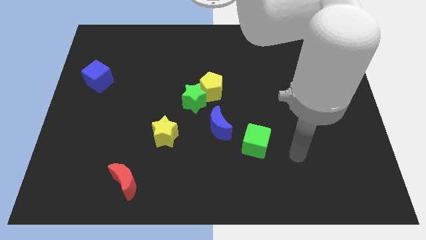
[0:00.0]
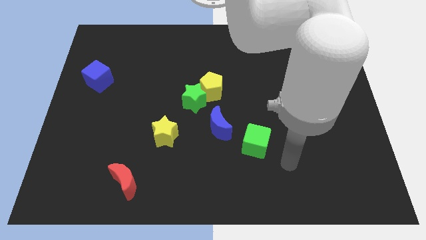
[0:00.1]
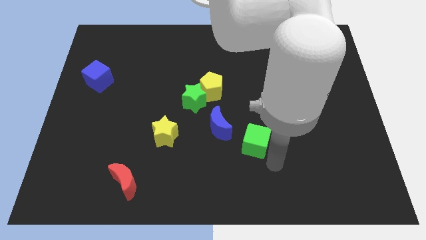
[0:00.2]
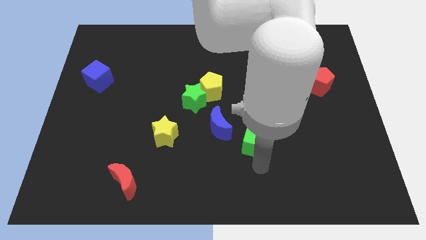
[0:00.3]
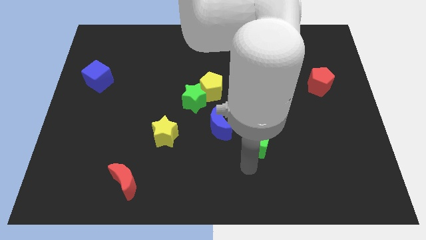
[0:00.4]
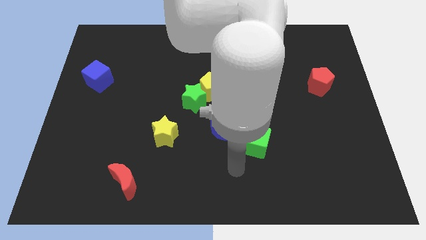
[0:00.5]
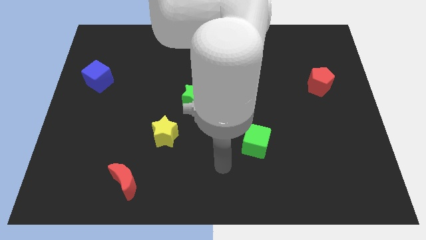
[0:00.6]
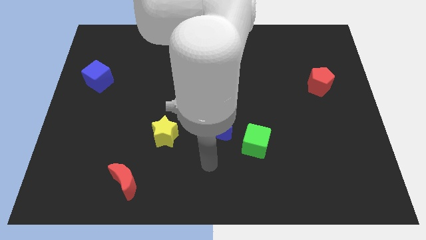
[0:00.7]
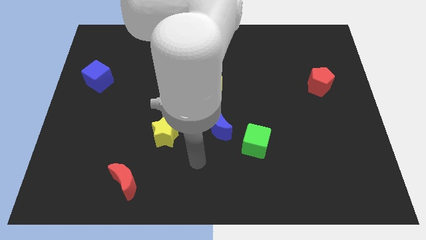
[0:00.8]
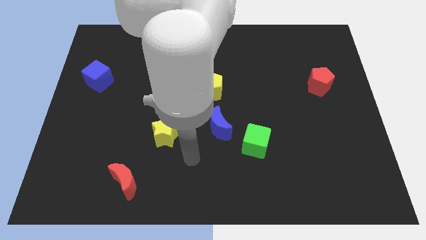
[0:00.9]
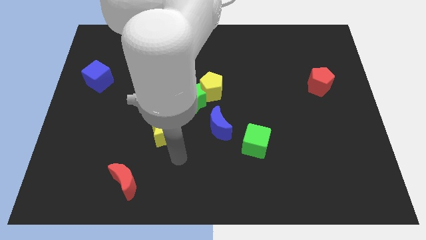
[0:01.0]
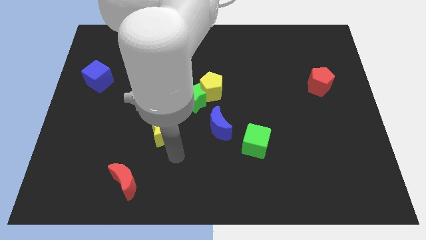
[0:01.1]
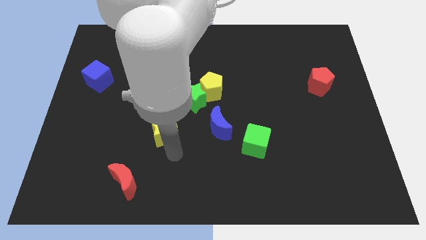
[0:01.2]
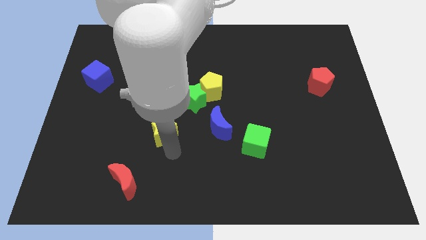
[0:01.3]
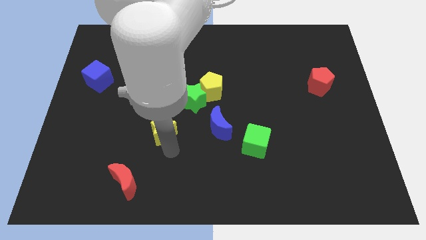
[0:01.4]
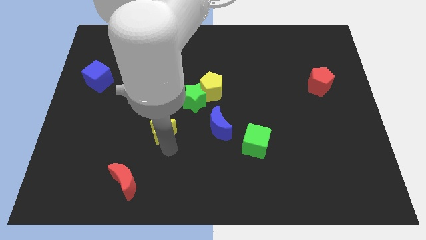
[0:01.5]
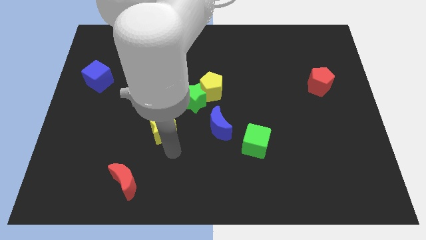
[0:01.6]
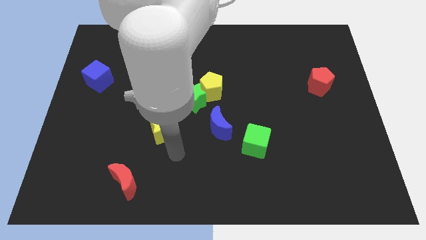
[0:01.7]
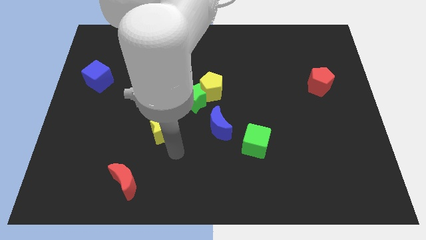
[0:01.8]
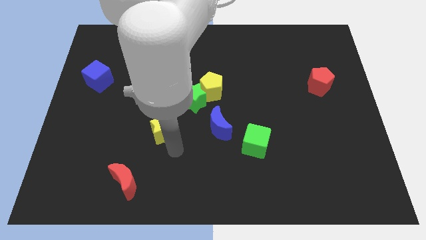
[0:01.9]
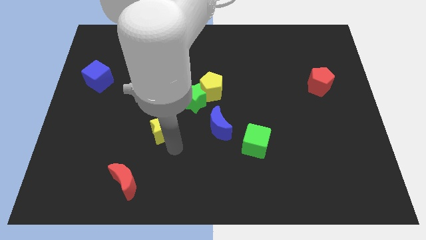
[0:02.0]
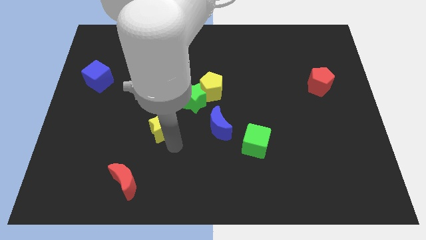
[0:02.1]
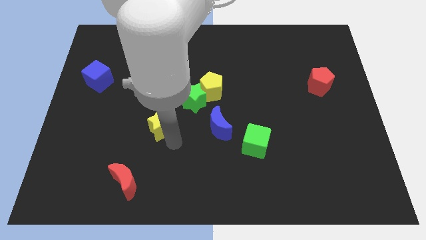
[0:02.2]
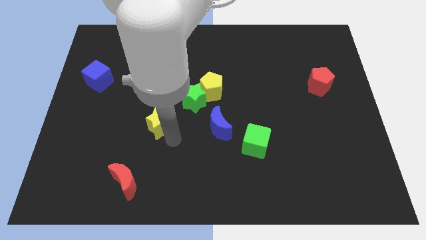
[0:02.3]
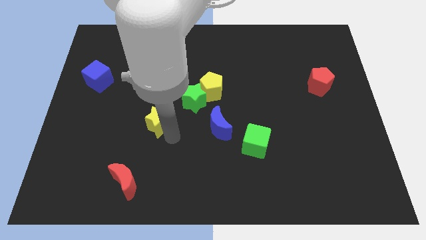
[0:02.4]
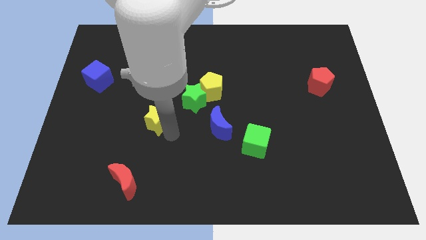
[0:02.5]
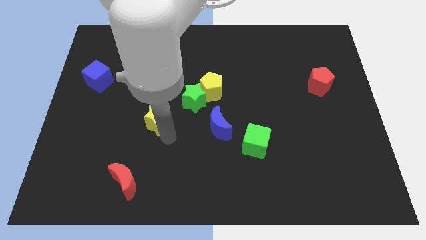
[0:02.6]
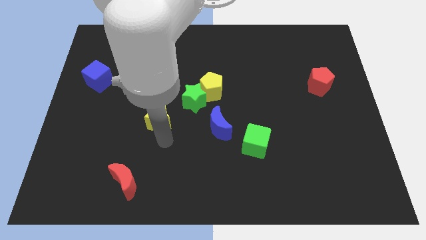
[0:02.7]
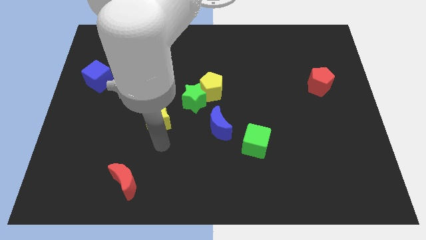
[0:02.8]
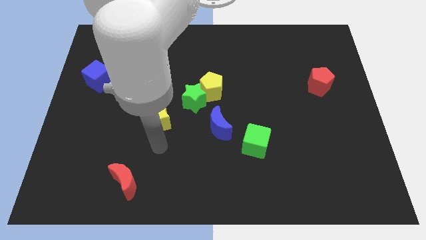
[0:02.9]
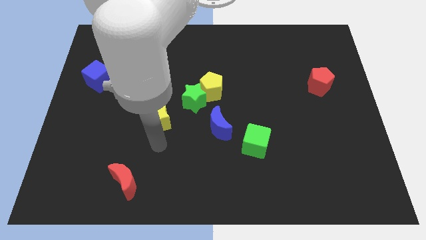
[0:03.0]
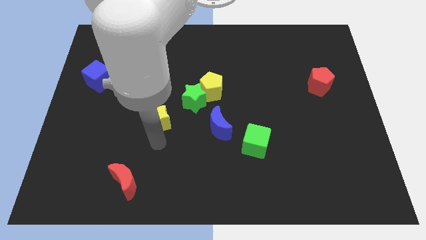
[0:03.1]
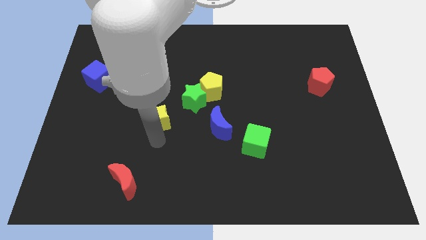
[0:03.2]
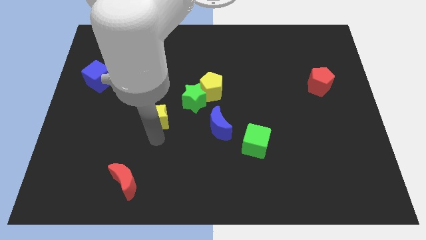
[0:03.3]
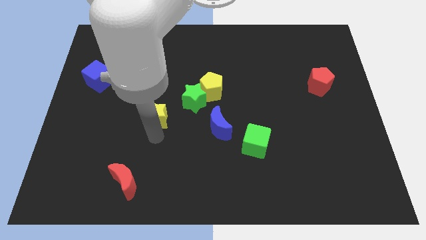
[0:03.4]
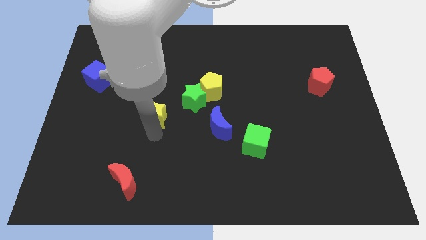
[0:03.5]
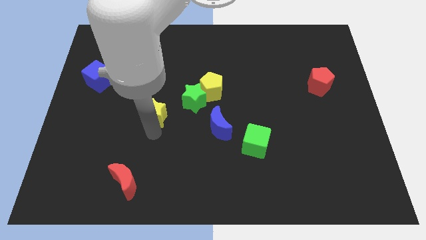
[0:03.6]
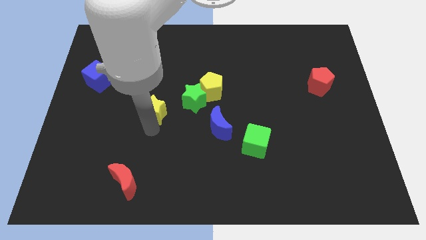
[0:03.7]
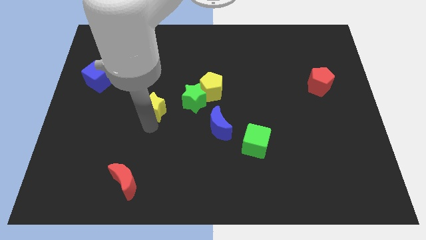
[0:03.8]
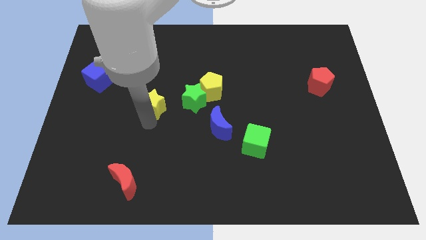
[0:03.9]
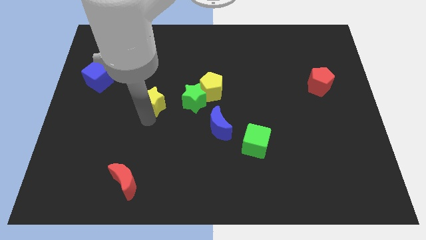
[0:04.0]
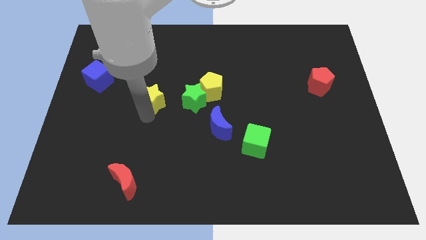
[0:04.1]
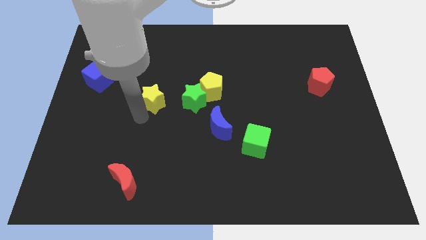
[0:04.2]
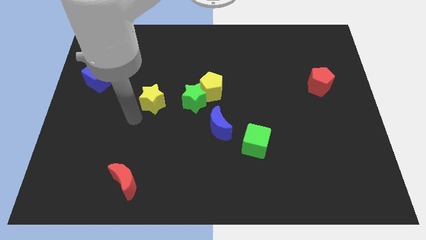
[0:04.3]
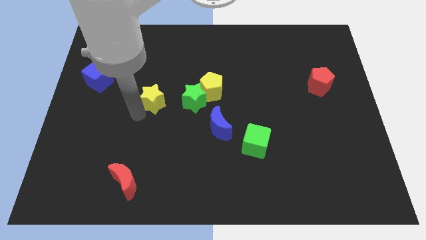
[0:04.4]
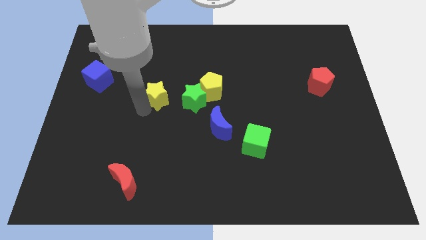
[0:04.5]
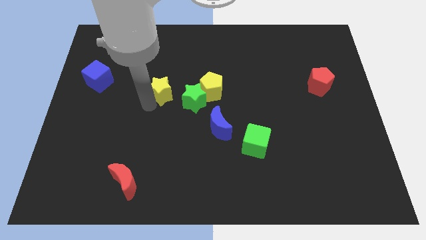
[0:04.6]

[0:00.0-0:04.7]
put the yellow star to the top left side of the green star

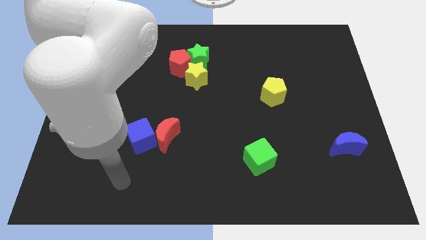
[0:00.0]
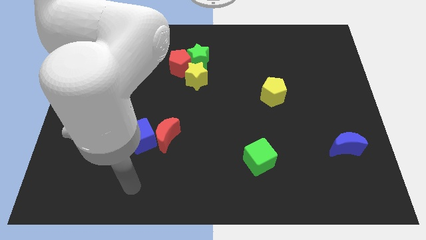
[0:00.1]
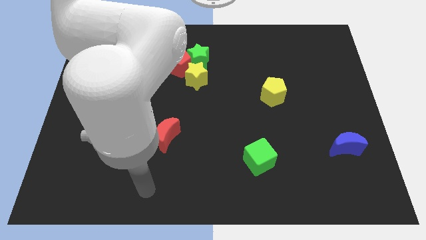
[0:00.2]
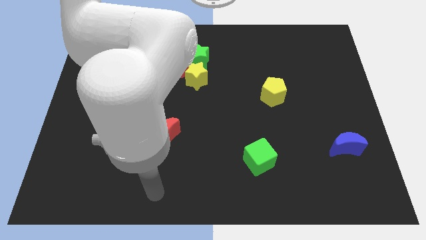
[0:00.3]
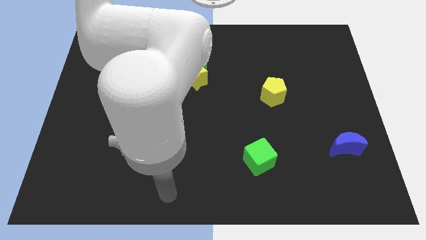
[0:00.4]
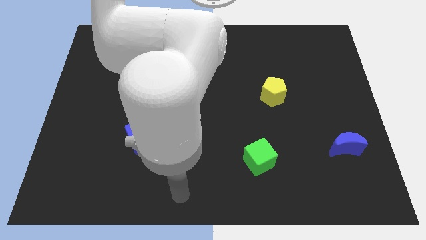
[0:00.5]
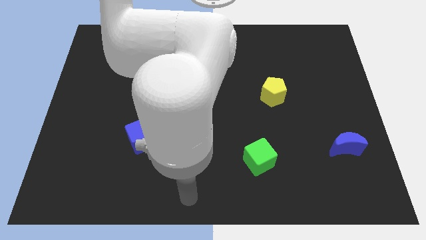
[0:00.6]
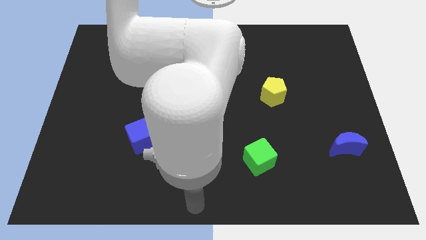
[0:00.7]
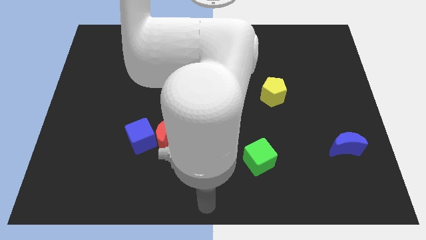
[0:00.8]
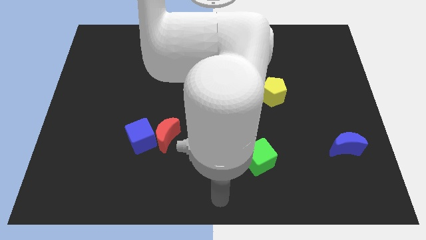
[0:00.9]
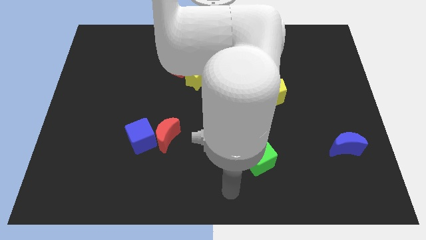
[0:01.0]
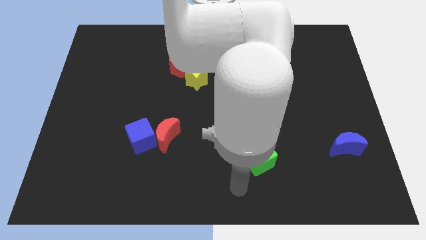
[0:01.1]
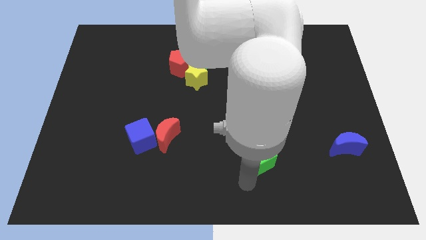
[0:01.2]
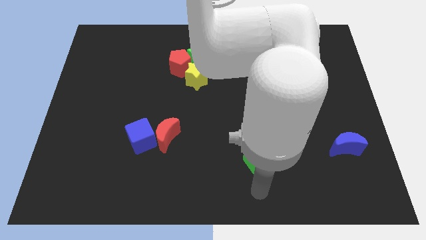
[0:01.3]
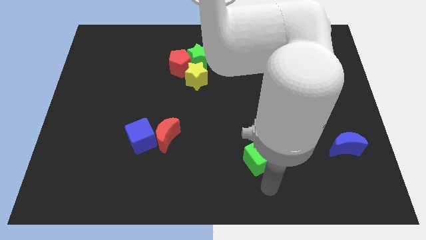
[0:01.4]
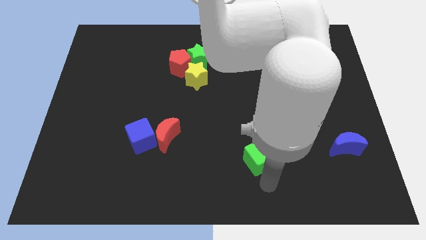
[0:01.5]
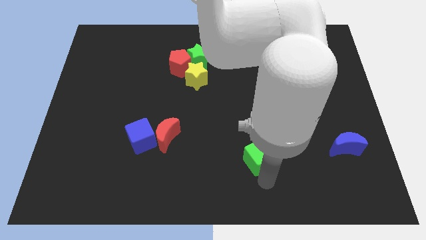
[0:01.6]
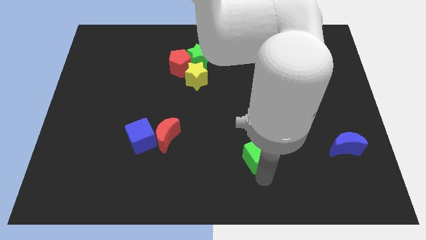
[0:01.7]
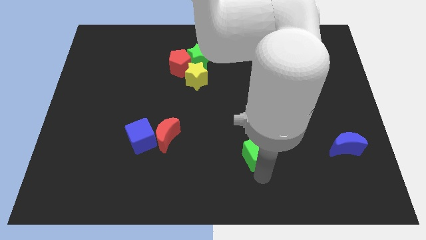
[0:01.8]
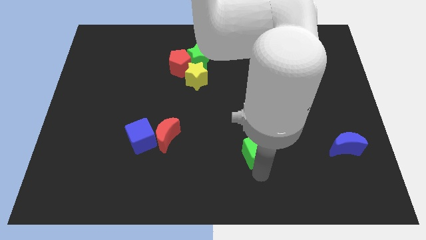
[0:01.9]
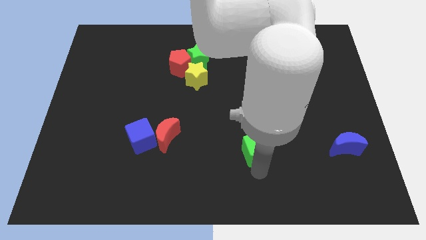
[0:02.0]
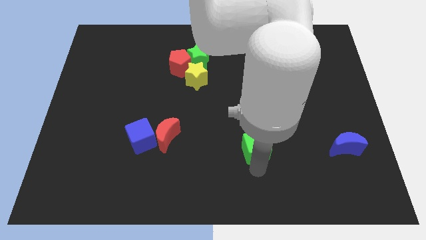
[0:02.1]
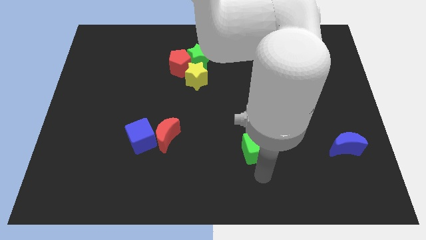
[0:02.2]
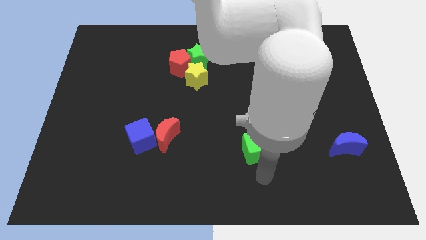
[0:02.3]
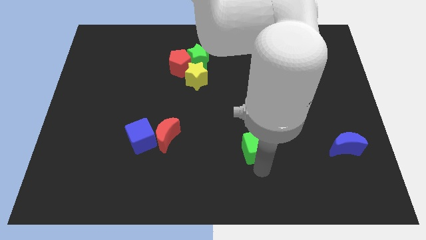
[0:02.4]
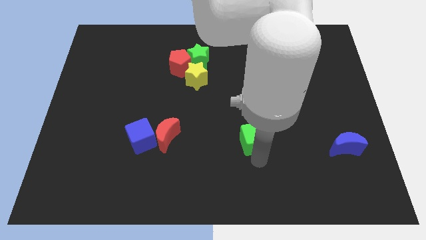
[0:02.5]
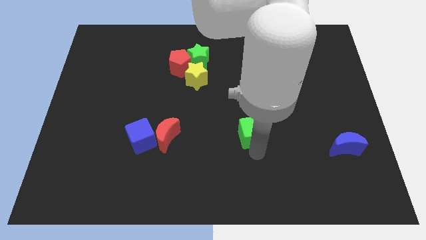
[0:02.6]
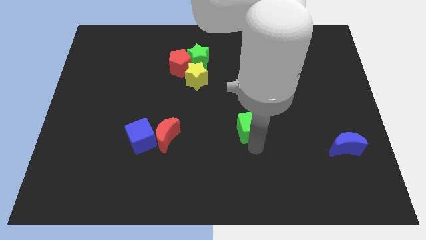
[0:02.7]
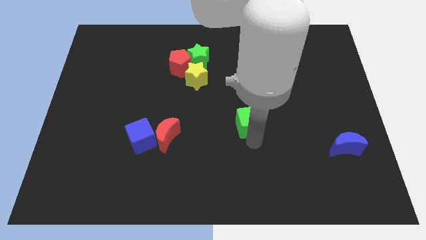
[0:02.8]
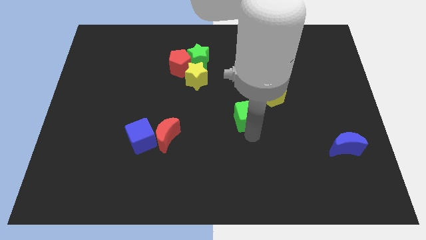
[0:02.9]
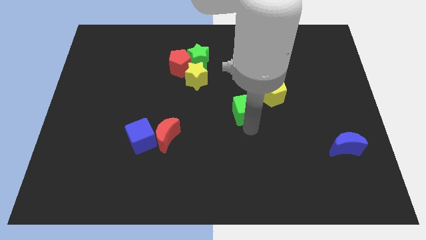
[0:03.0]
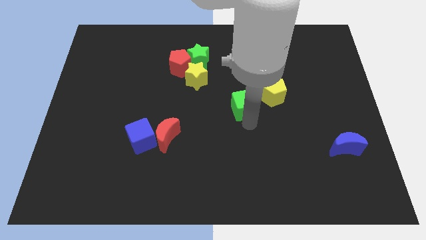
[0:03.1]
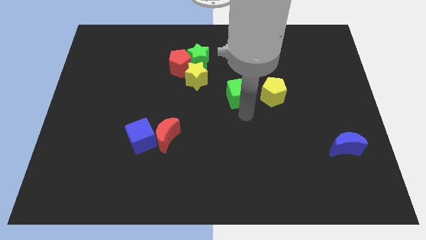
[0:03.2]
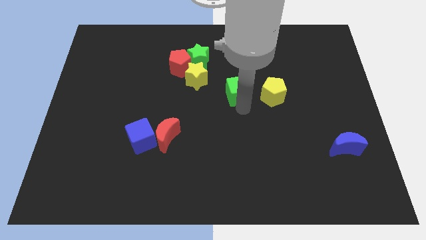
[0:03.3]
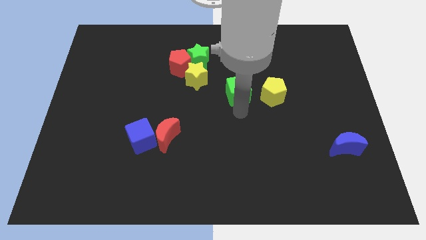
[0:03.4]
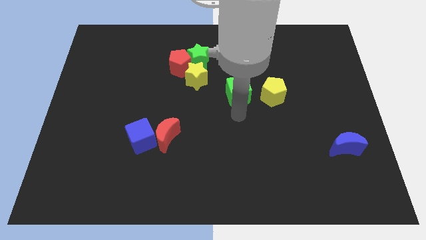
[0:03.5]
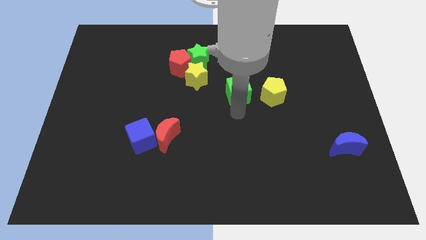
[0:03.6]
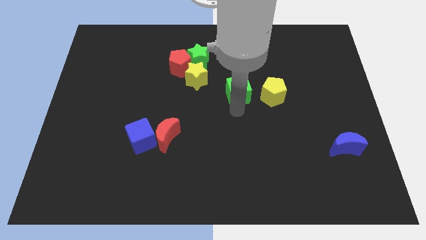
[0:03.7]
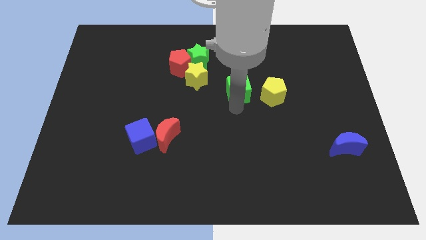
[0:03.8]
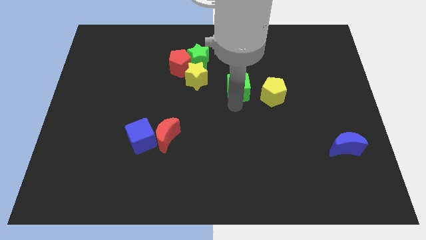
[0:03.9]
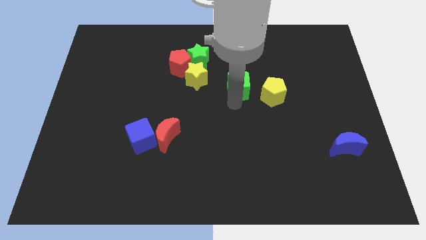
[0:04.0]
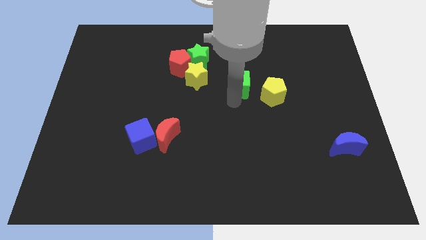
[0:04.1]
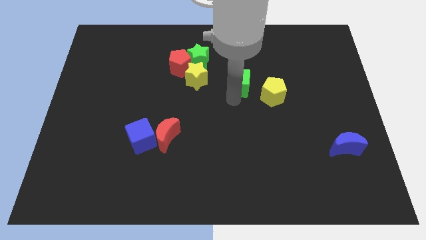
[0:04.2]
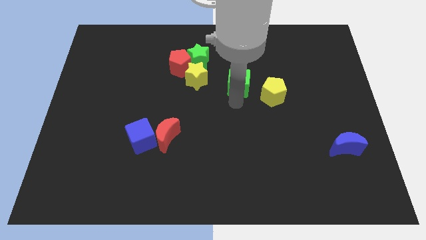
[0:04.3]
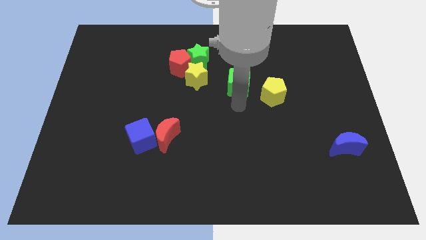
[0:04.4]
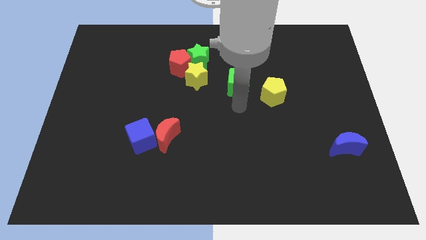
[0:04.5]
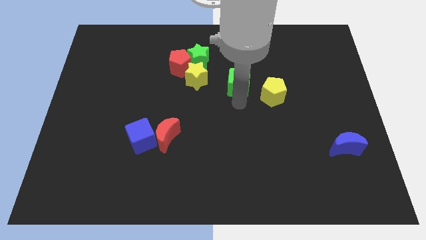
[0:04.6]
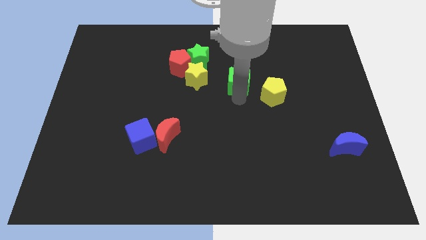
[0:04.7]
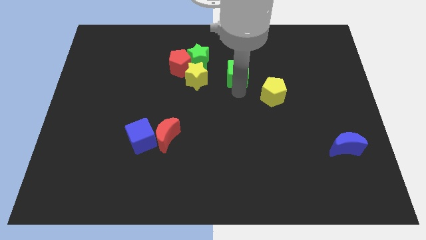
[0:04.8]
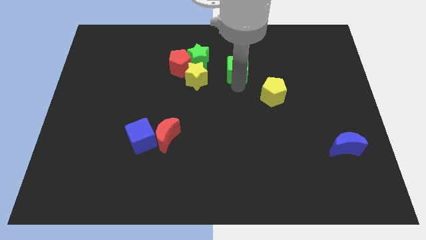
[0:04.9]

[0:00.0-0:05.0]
slide the green cube just right of the green star
